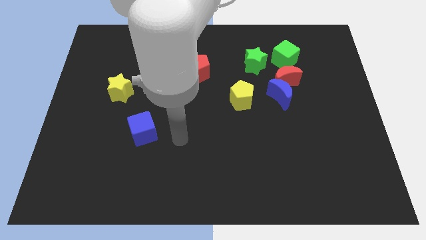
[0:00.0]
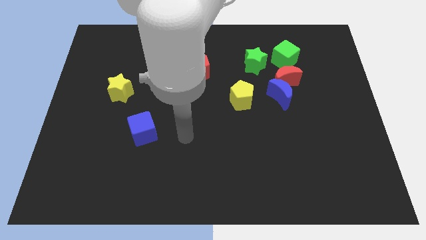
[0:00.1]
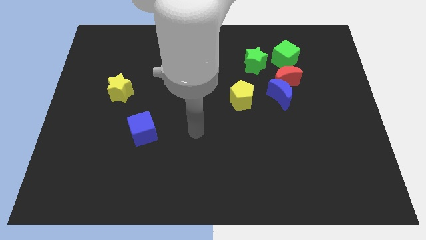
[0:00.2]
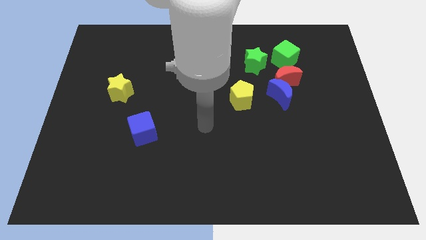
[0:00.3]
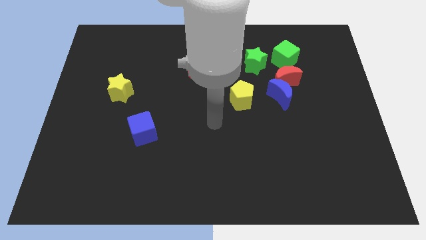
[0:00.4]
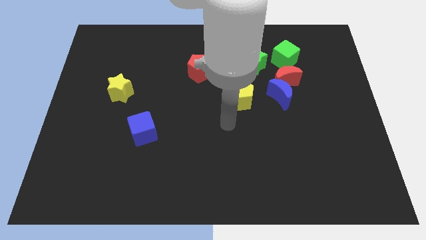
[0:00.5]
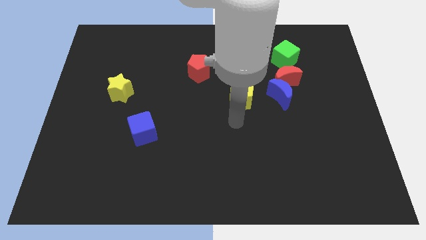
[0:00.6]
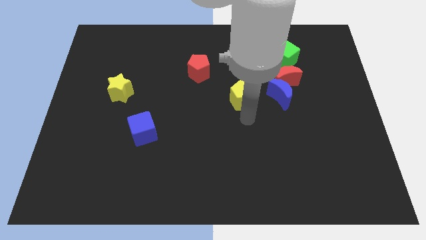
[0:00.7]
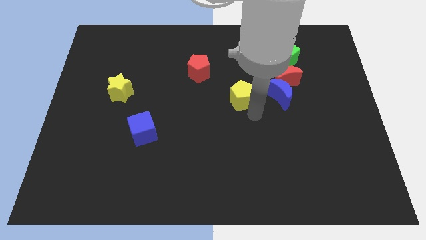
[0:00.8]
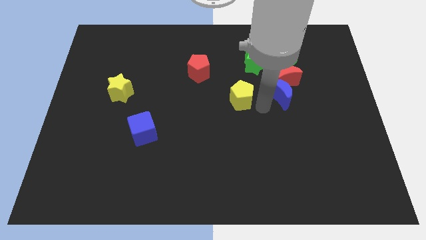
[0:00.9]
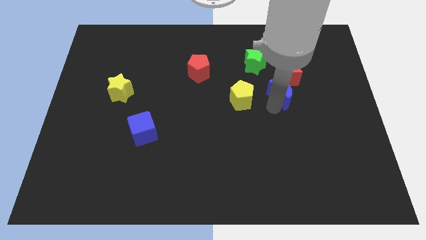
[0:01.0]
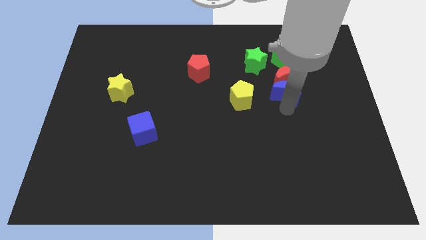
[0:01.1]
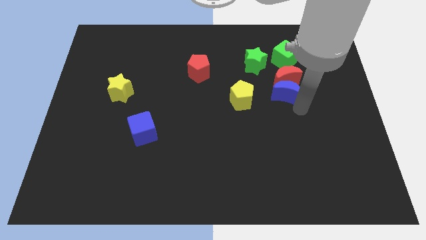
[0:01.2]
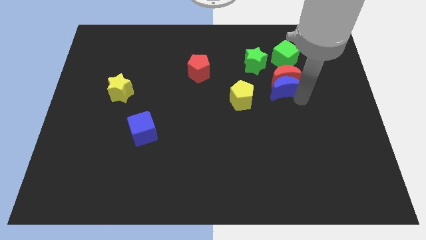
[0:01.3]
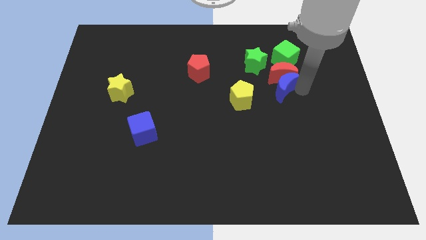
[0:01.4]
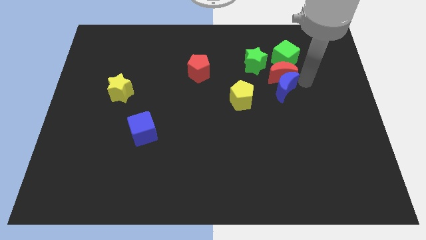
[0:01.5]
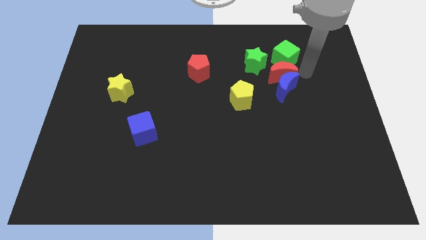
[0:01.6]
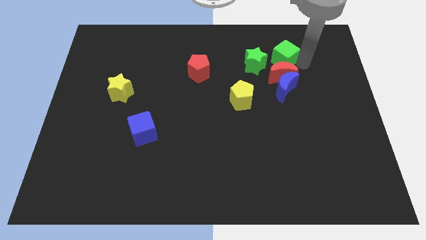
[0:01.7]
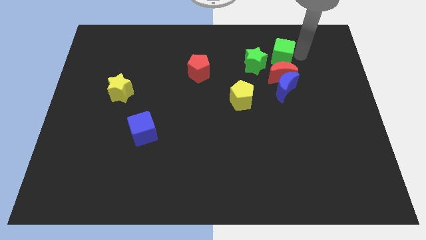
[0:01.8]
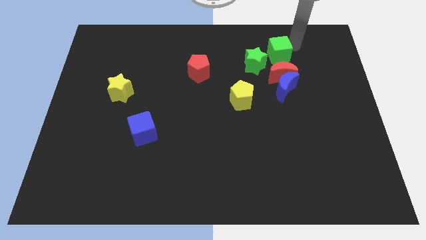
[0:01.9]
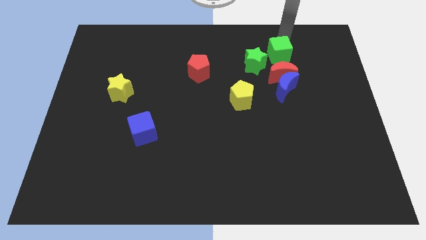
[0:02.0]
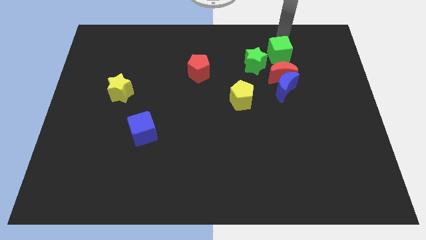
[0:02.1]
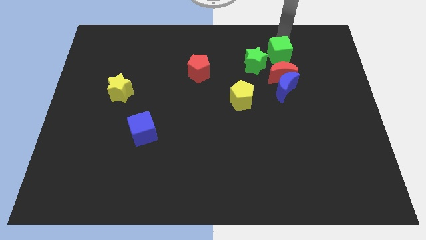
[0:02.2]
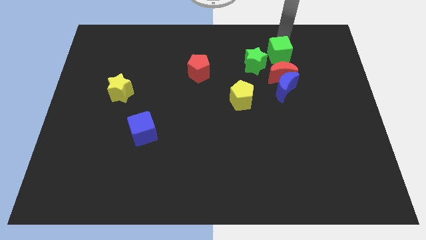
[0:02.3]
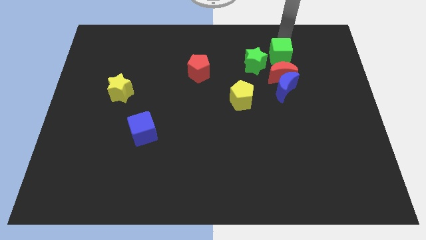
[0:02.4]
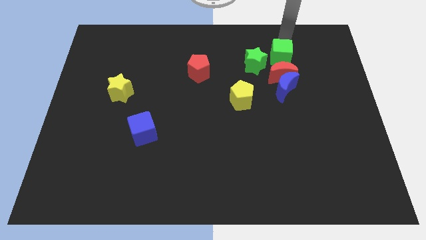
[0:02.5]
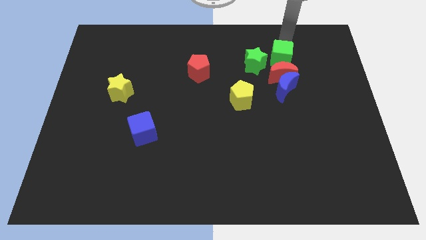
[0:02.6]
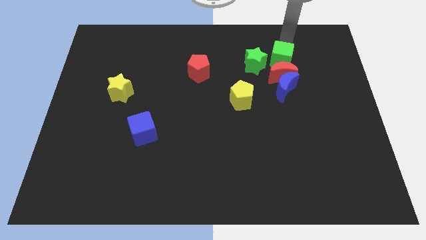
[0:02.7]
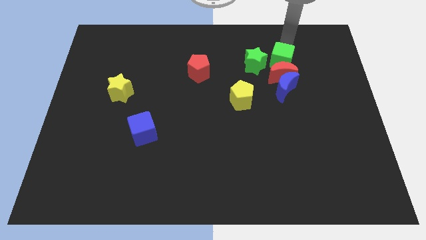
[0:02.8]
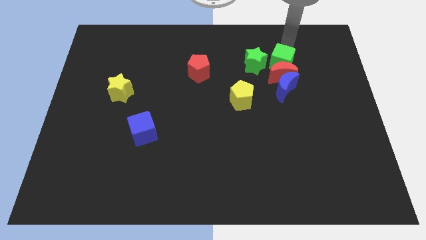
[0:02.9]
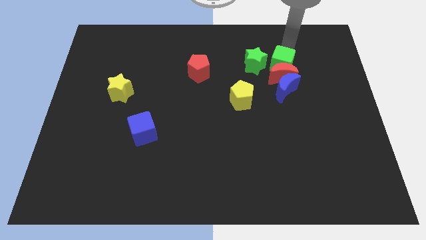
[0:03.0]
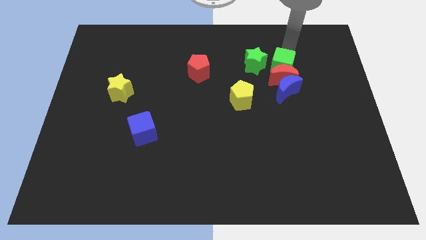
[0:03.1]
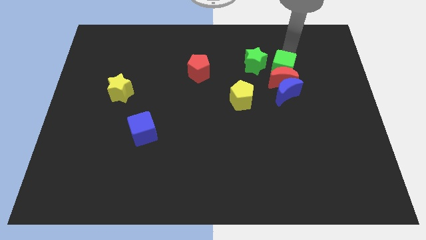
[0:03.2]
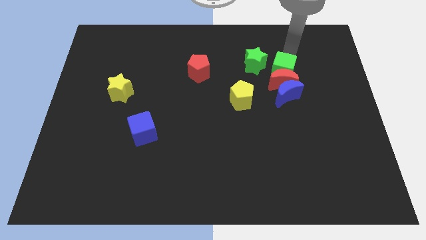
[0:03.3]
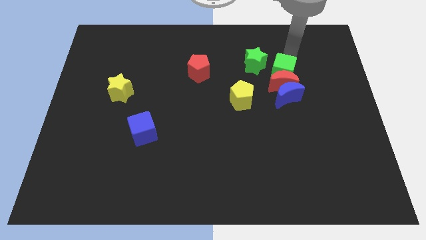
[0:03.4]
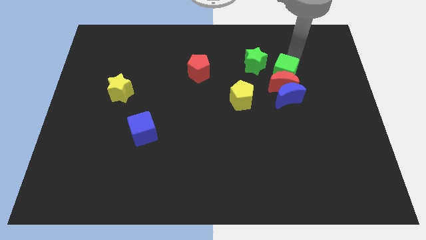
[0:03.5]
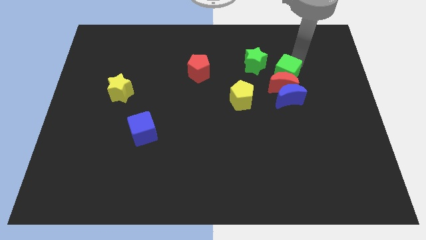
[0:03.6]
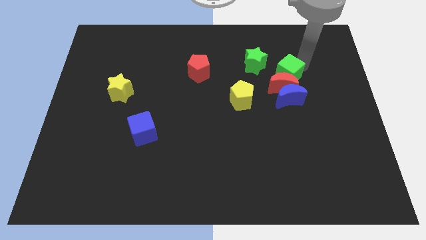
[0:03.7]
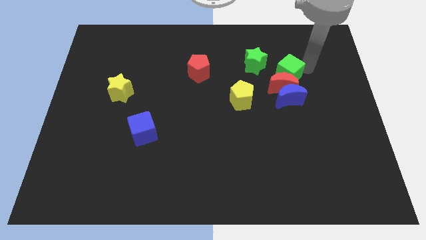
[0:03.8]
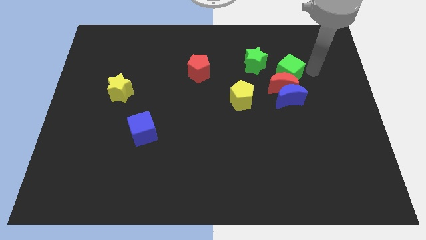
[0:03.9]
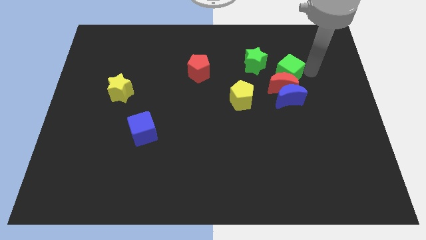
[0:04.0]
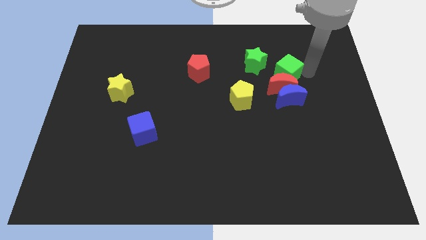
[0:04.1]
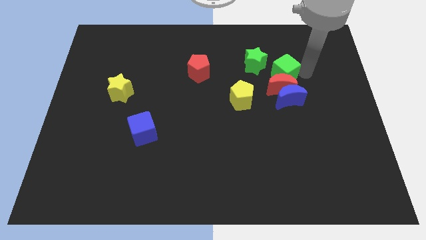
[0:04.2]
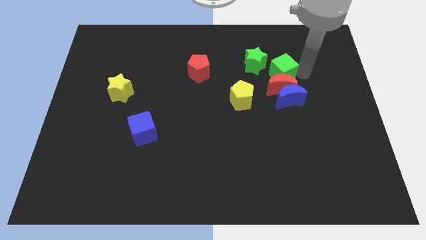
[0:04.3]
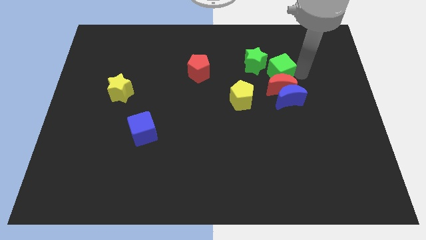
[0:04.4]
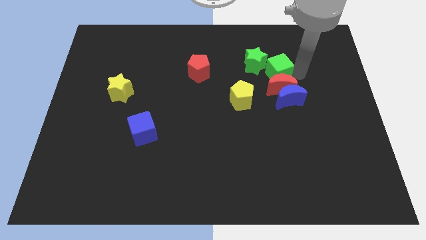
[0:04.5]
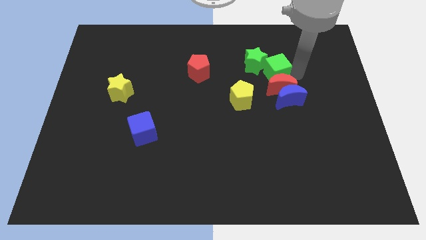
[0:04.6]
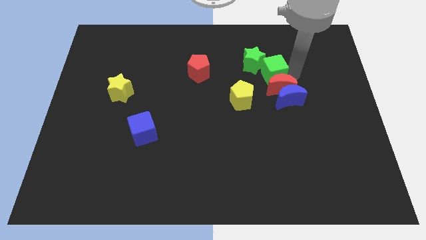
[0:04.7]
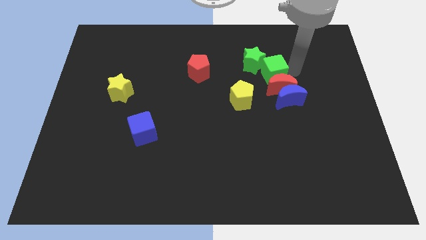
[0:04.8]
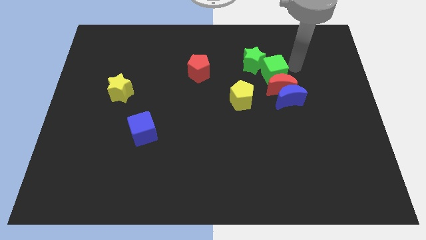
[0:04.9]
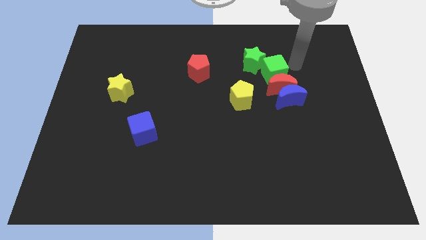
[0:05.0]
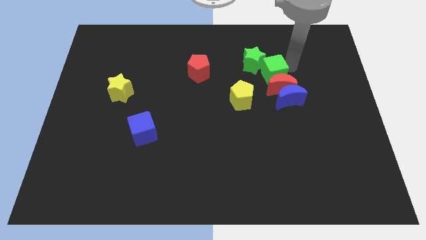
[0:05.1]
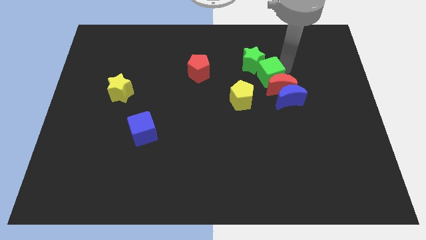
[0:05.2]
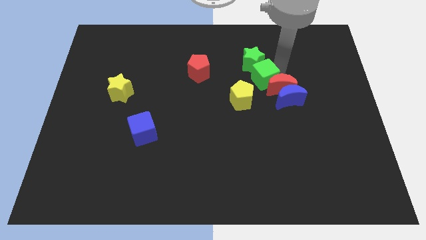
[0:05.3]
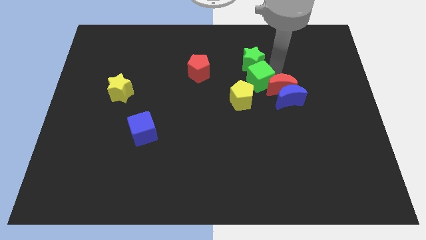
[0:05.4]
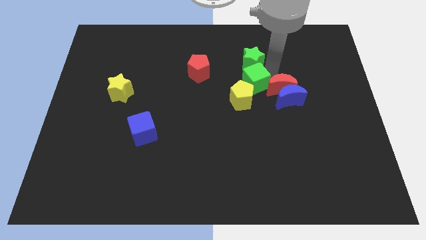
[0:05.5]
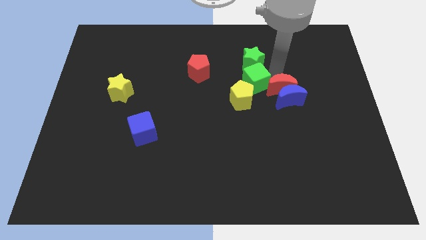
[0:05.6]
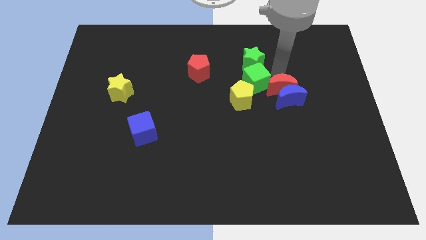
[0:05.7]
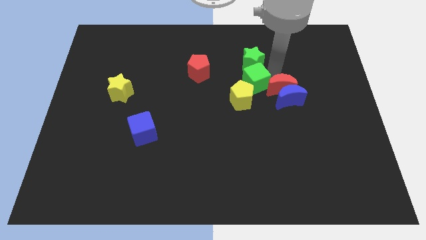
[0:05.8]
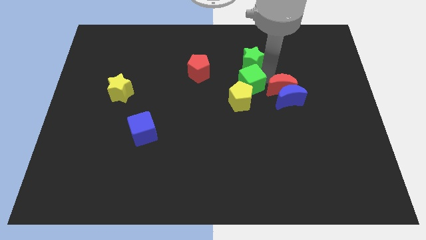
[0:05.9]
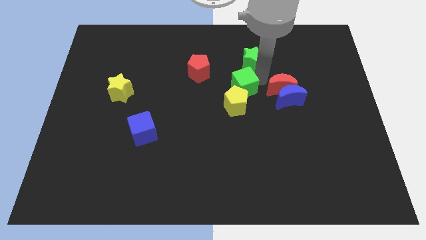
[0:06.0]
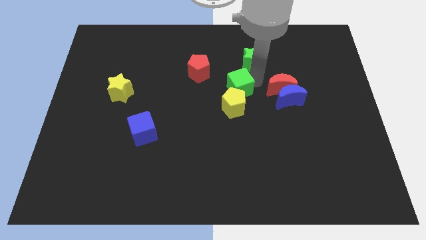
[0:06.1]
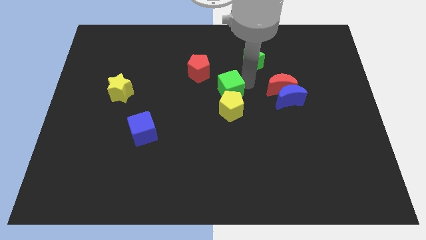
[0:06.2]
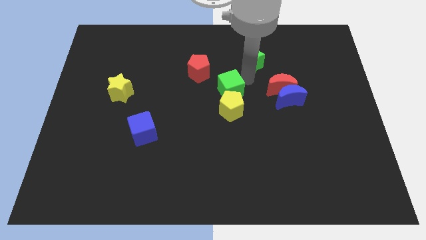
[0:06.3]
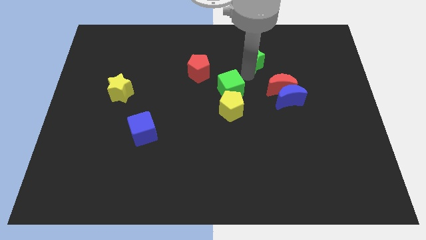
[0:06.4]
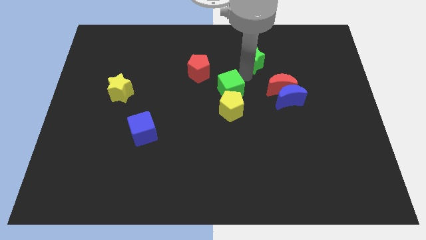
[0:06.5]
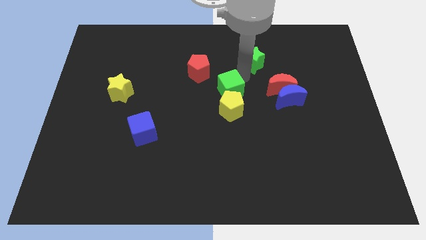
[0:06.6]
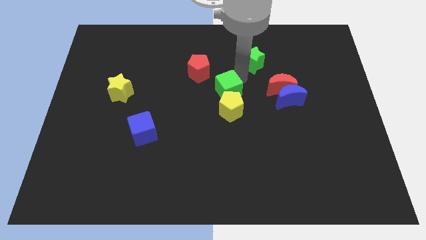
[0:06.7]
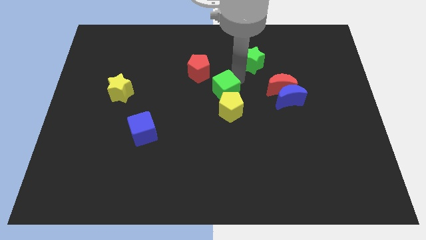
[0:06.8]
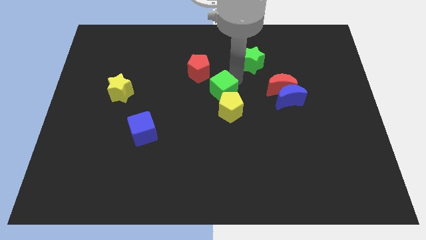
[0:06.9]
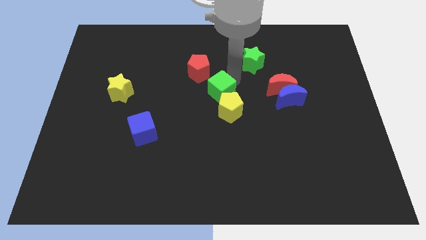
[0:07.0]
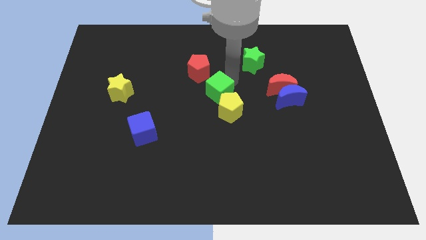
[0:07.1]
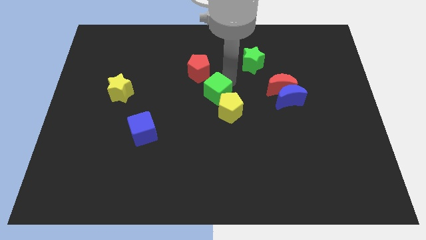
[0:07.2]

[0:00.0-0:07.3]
push the green cube down and then left

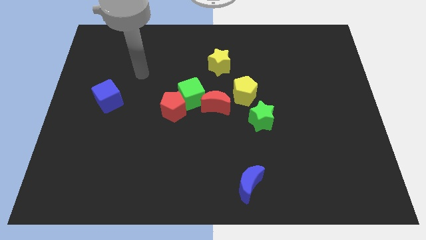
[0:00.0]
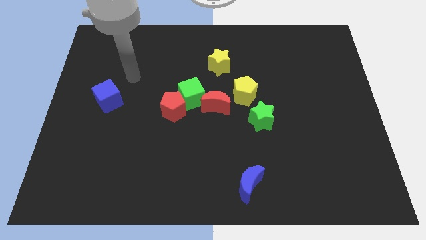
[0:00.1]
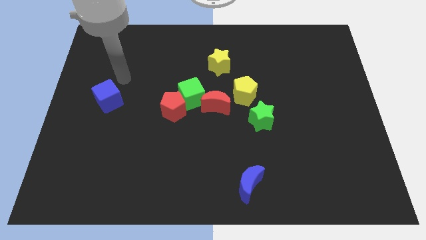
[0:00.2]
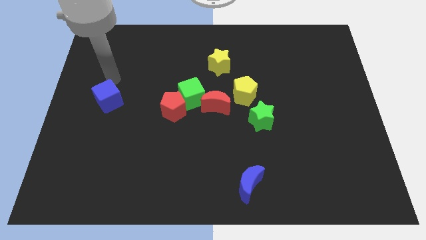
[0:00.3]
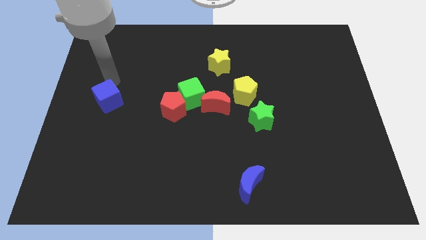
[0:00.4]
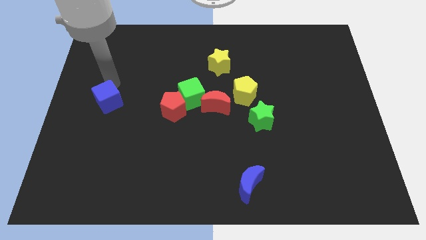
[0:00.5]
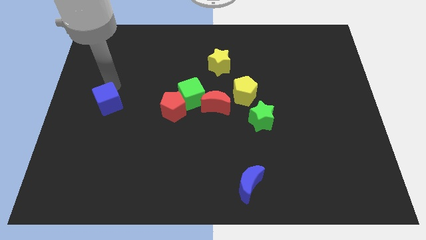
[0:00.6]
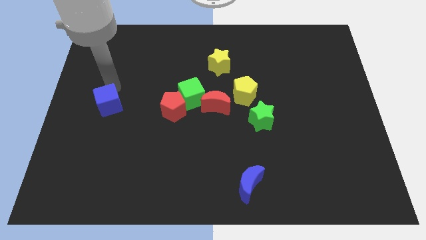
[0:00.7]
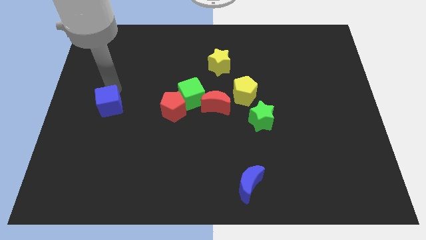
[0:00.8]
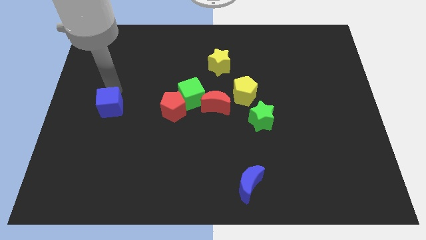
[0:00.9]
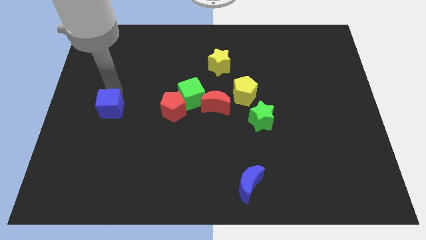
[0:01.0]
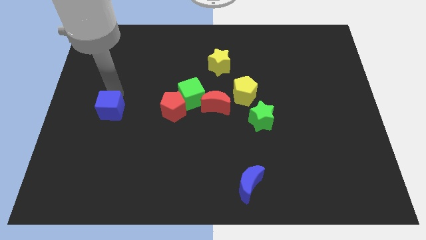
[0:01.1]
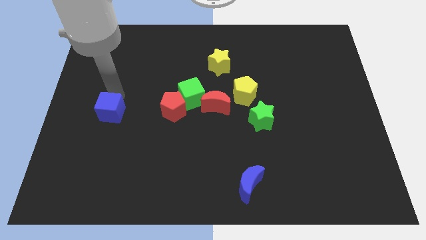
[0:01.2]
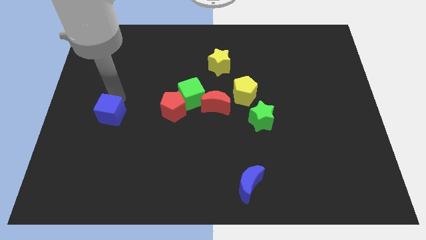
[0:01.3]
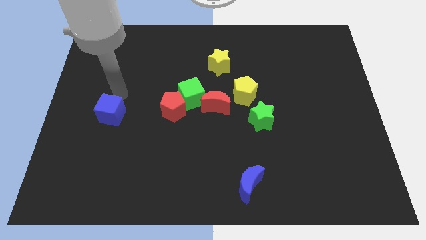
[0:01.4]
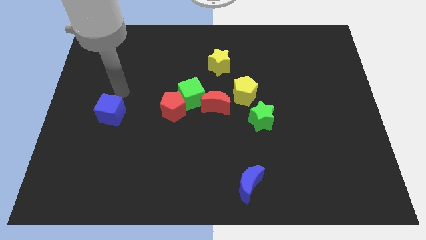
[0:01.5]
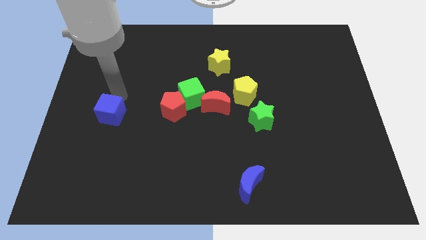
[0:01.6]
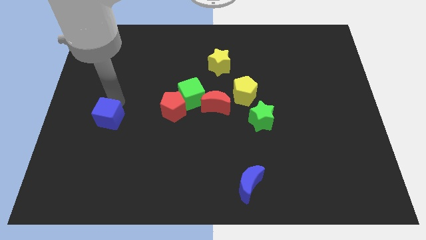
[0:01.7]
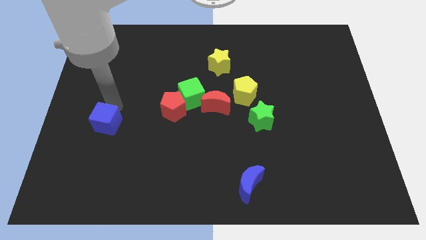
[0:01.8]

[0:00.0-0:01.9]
slightly slide the blue cube down
